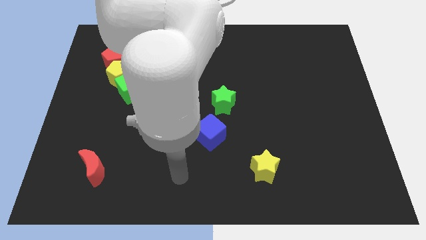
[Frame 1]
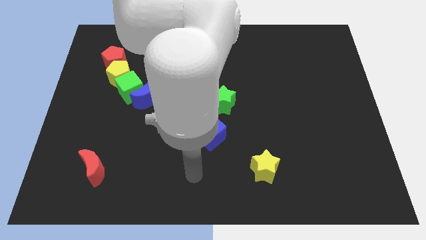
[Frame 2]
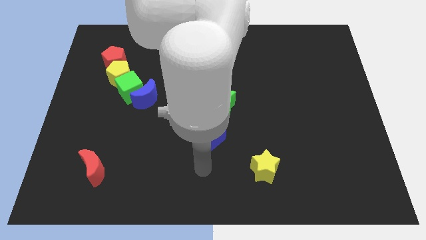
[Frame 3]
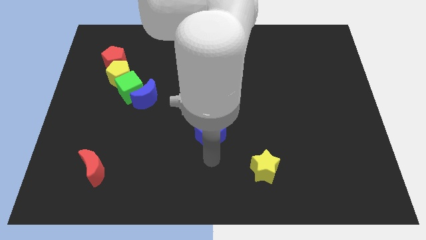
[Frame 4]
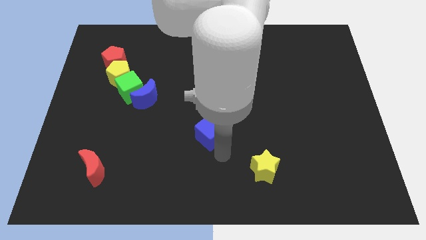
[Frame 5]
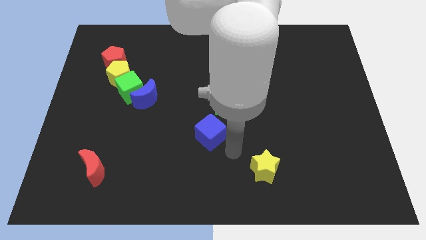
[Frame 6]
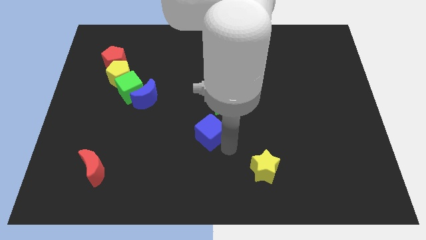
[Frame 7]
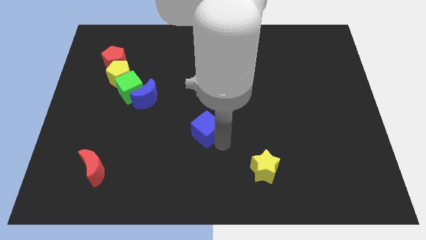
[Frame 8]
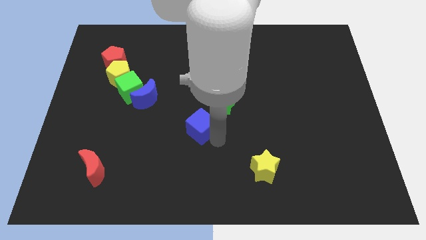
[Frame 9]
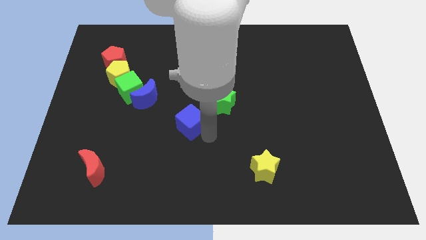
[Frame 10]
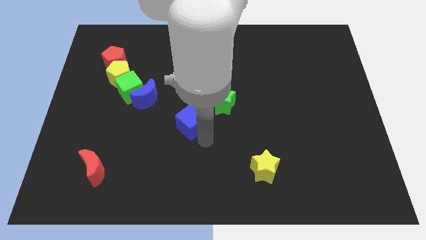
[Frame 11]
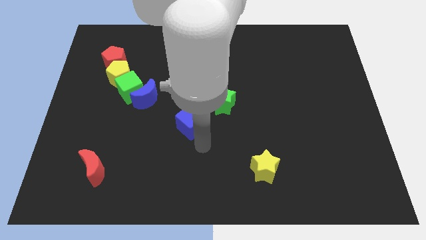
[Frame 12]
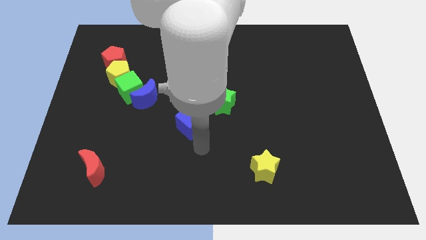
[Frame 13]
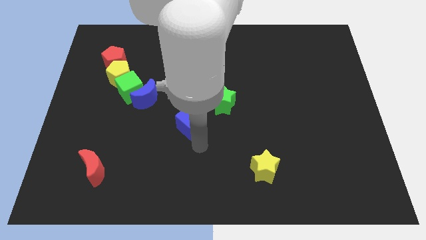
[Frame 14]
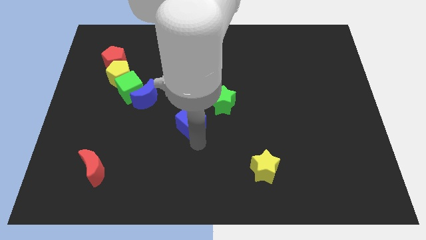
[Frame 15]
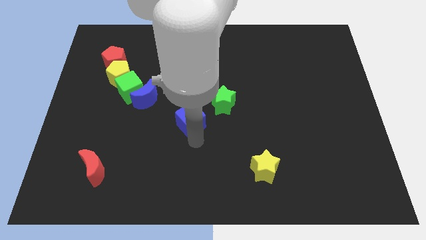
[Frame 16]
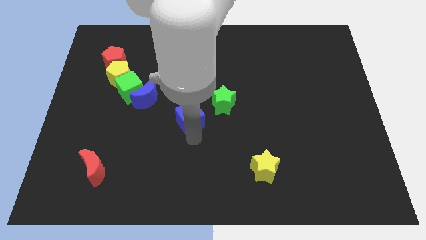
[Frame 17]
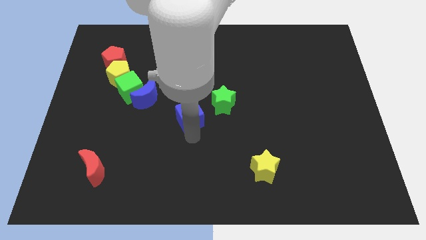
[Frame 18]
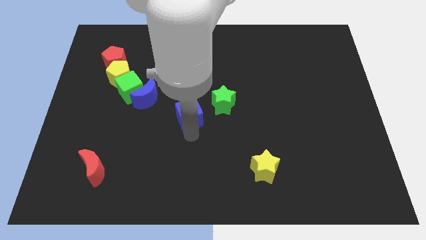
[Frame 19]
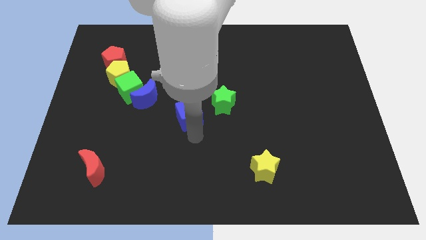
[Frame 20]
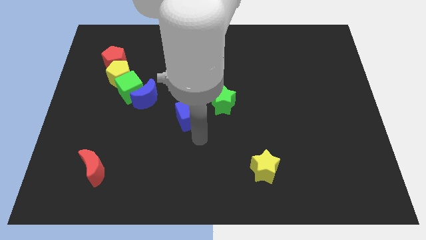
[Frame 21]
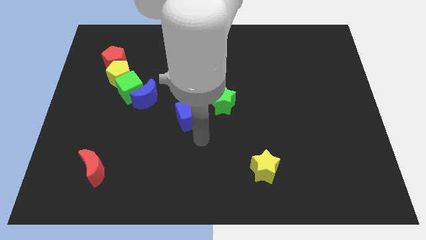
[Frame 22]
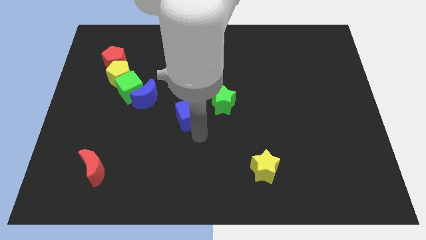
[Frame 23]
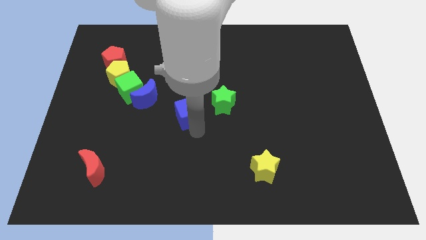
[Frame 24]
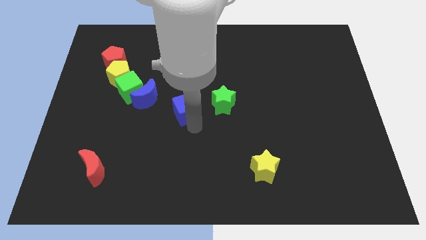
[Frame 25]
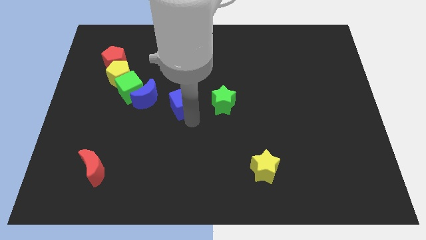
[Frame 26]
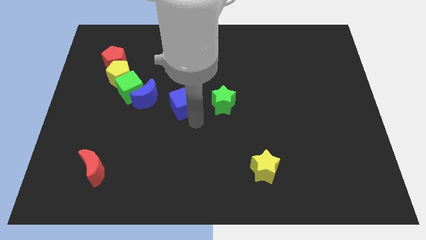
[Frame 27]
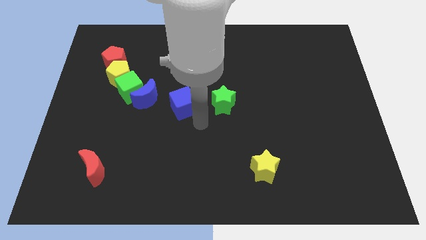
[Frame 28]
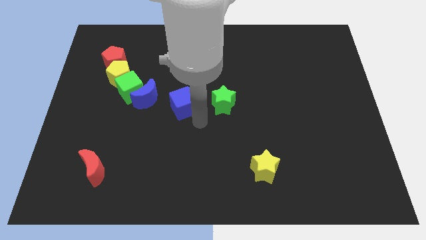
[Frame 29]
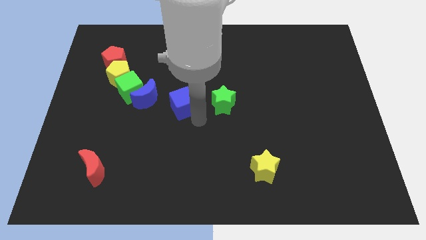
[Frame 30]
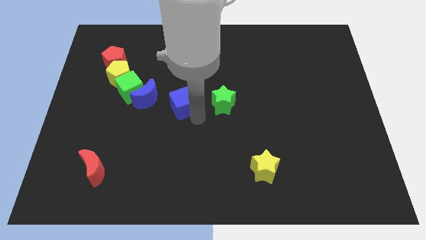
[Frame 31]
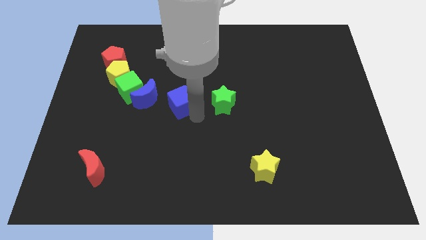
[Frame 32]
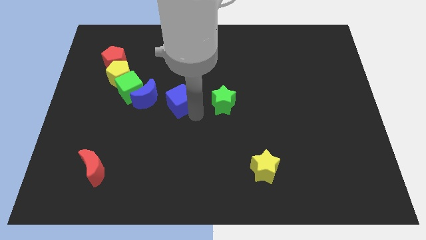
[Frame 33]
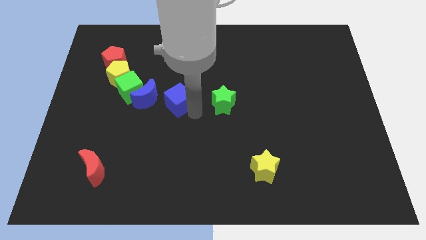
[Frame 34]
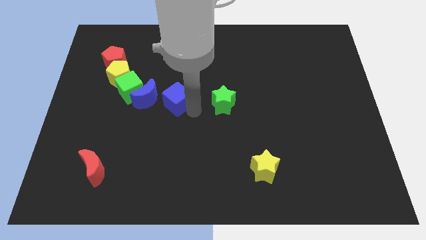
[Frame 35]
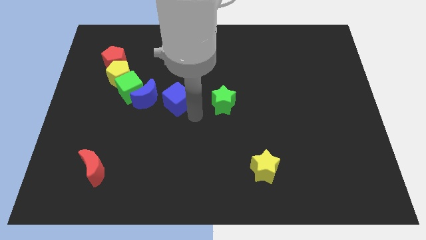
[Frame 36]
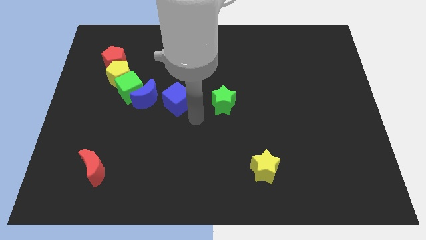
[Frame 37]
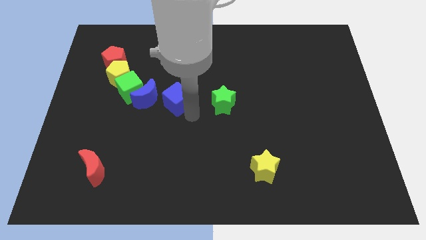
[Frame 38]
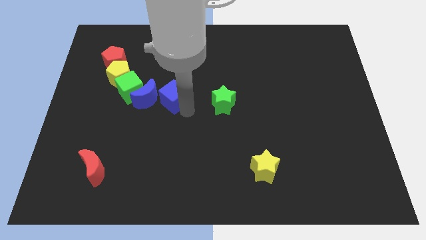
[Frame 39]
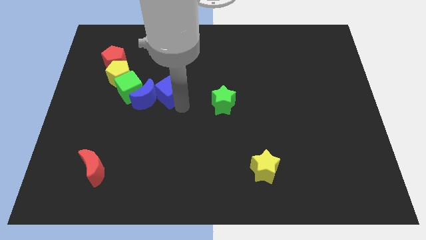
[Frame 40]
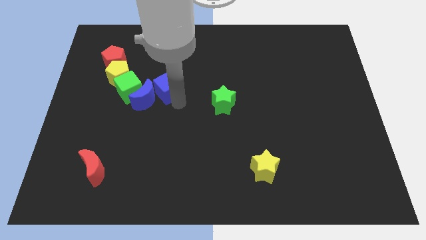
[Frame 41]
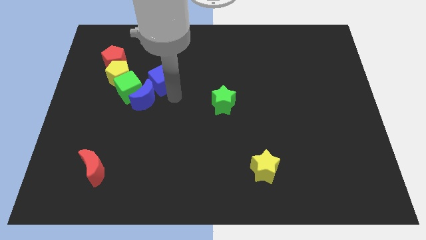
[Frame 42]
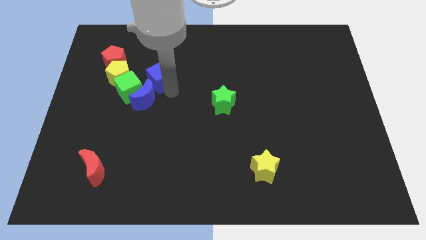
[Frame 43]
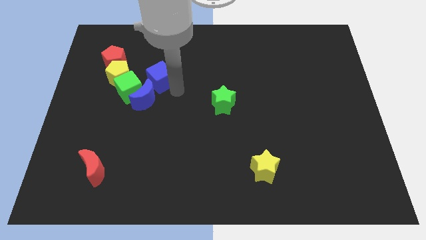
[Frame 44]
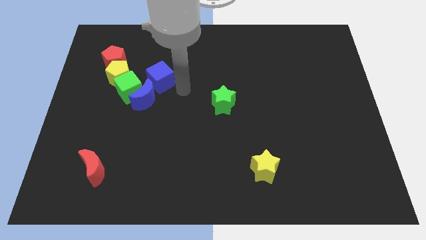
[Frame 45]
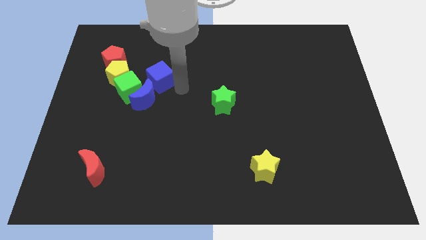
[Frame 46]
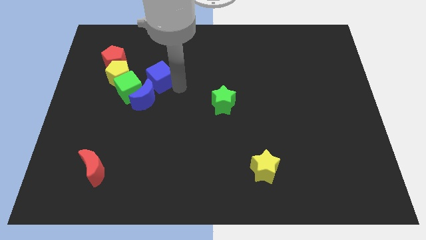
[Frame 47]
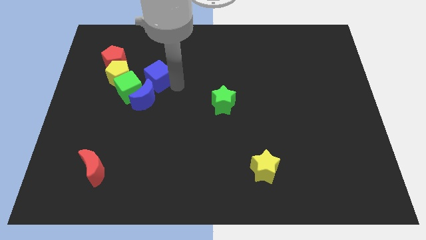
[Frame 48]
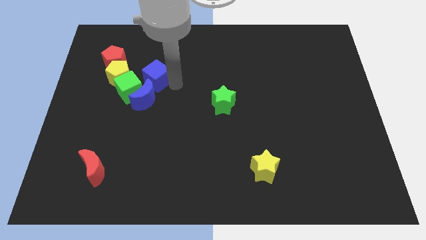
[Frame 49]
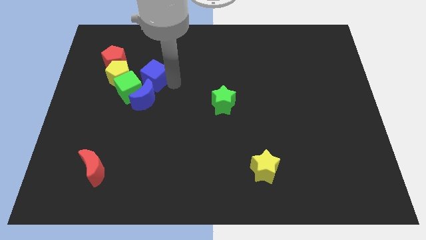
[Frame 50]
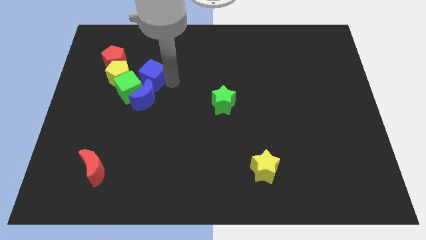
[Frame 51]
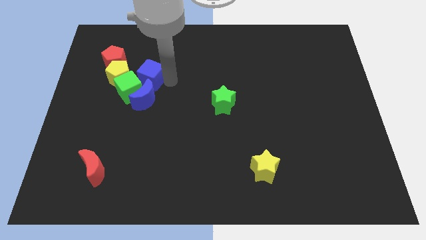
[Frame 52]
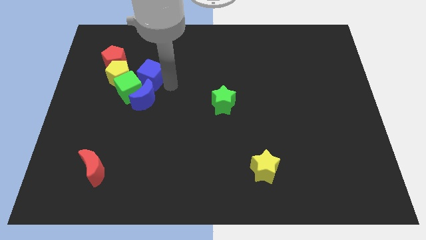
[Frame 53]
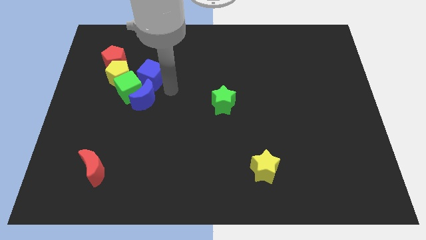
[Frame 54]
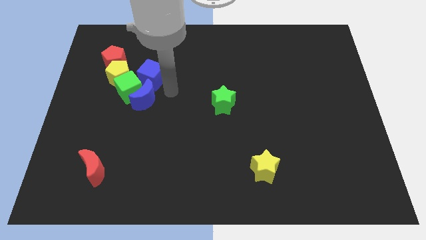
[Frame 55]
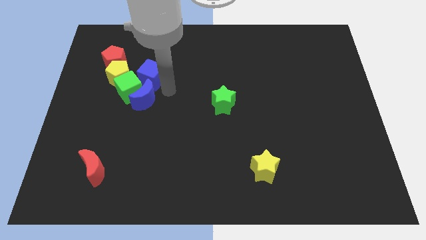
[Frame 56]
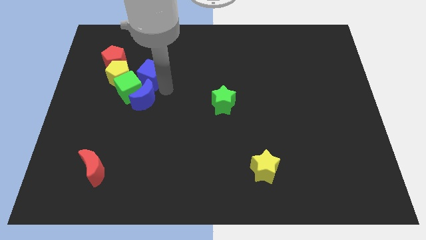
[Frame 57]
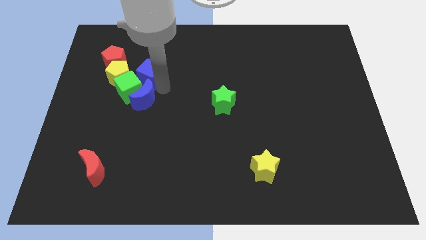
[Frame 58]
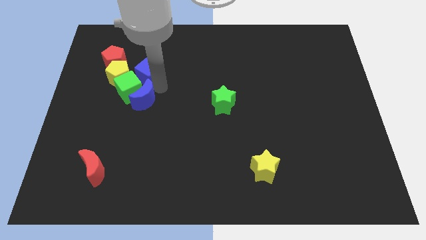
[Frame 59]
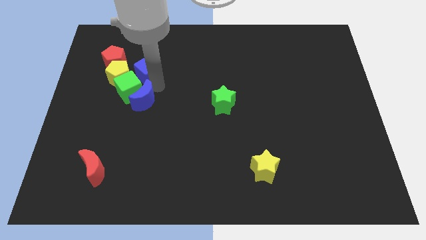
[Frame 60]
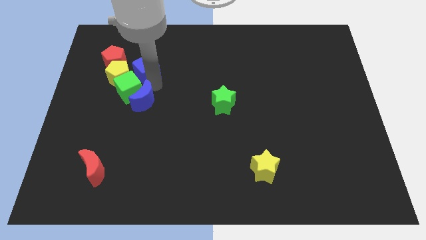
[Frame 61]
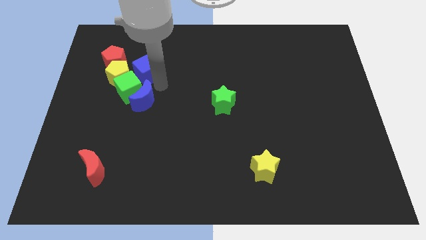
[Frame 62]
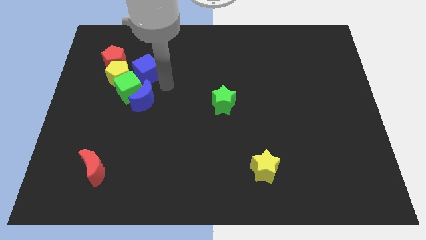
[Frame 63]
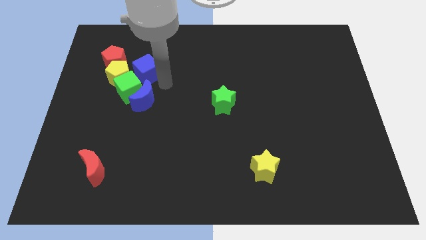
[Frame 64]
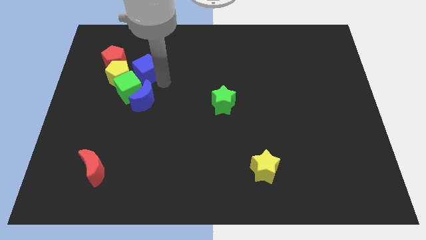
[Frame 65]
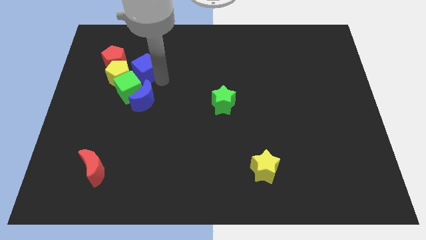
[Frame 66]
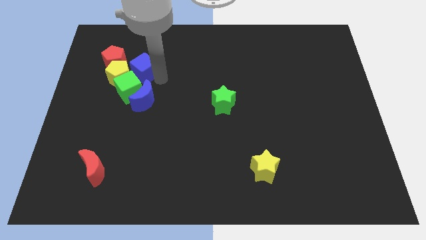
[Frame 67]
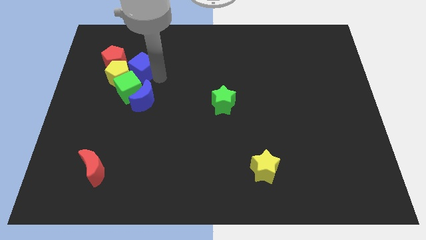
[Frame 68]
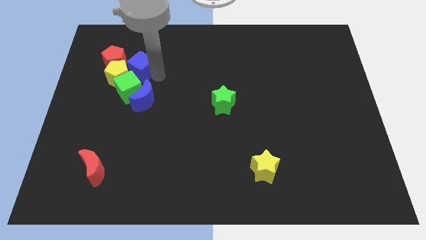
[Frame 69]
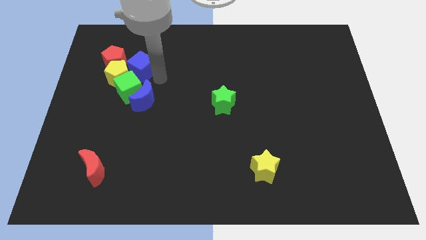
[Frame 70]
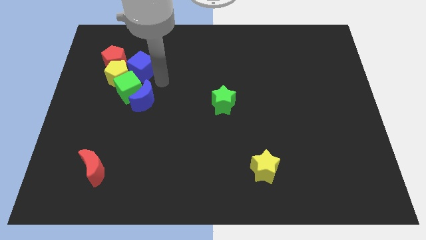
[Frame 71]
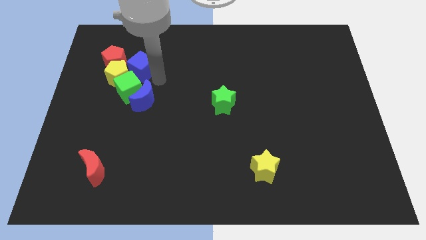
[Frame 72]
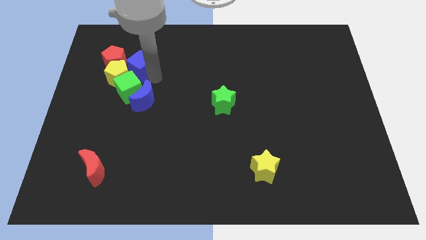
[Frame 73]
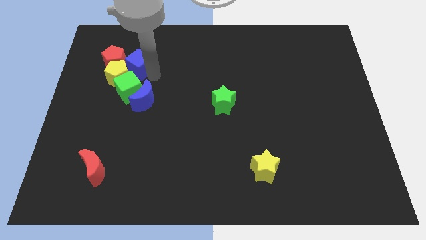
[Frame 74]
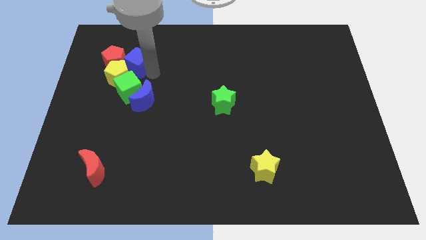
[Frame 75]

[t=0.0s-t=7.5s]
push the blue cube to the red pentagon
